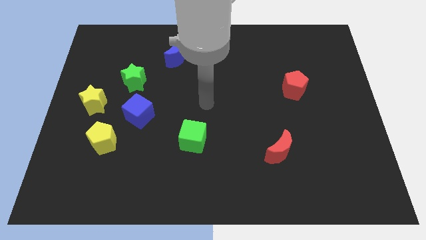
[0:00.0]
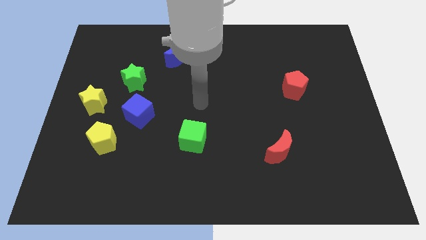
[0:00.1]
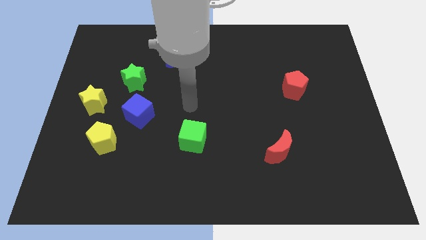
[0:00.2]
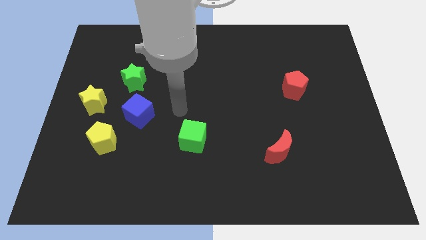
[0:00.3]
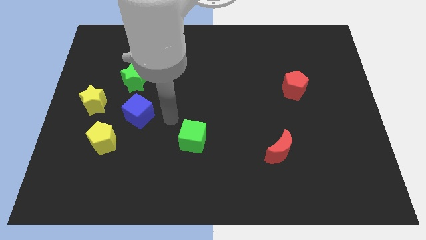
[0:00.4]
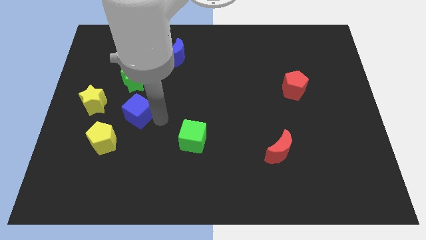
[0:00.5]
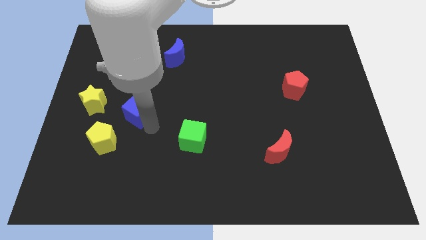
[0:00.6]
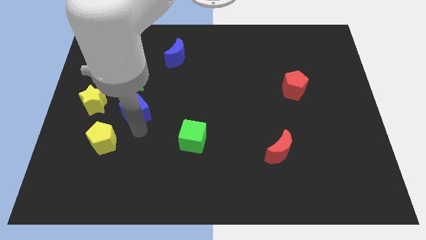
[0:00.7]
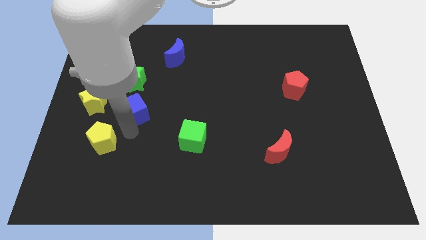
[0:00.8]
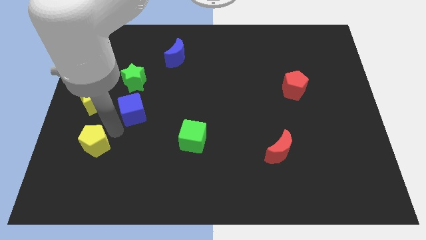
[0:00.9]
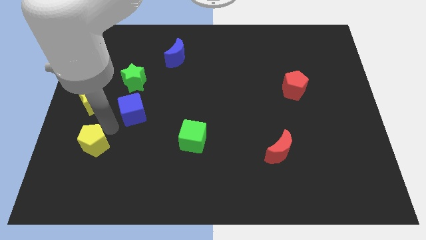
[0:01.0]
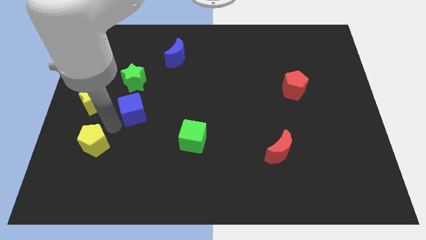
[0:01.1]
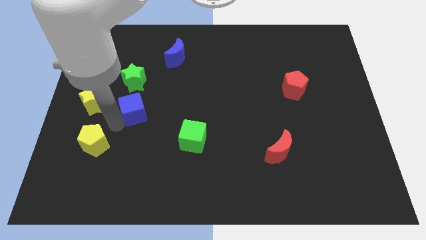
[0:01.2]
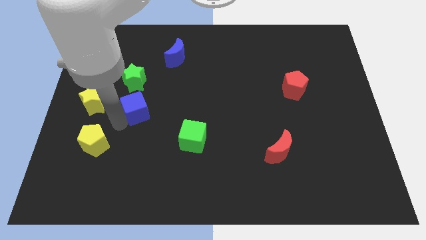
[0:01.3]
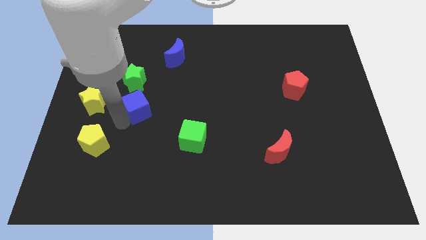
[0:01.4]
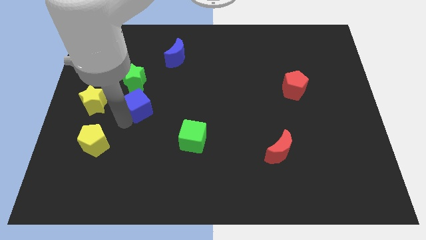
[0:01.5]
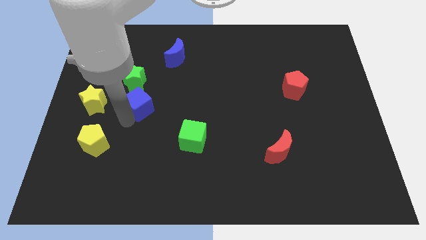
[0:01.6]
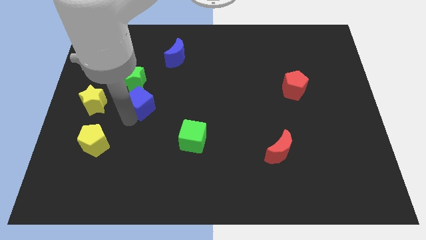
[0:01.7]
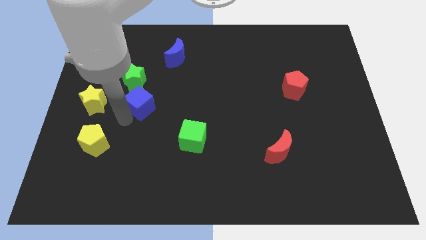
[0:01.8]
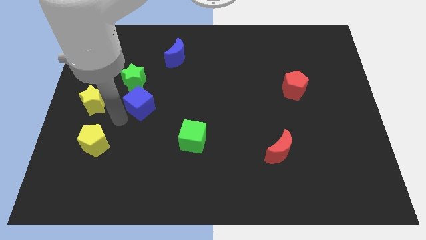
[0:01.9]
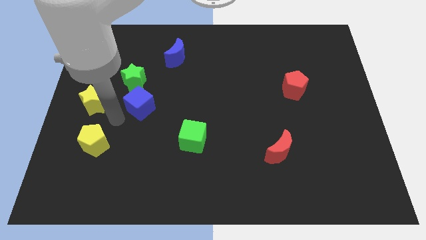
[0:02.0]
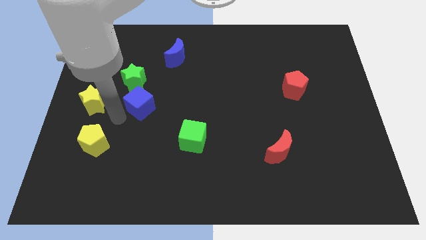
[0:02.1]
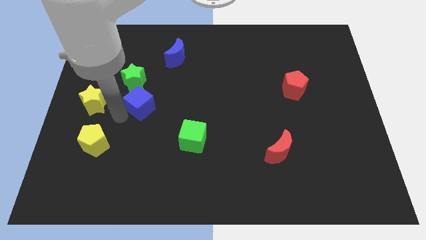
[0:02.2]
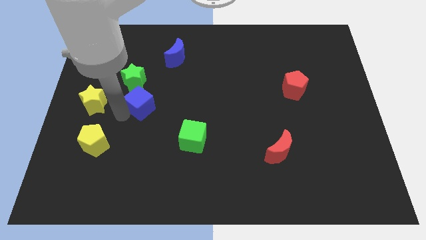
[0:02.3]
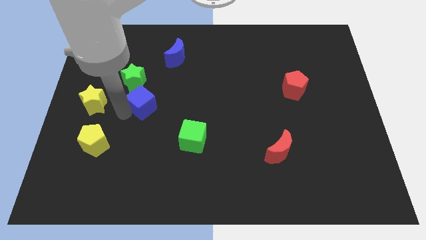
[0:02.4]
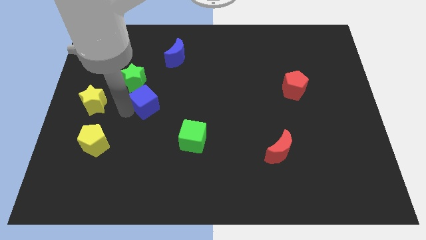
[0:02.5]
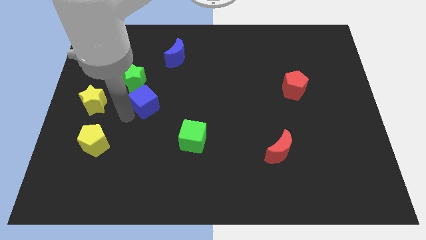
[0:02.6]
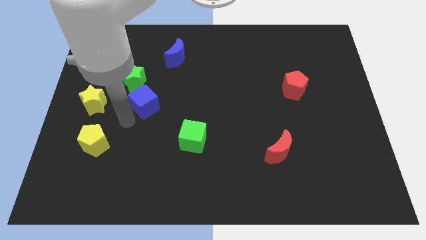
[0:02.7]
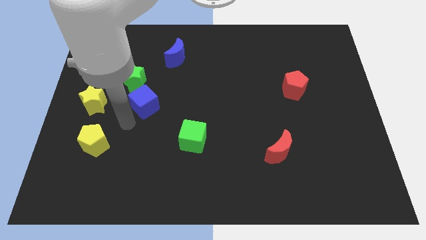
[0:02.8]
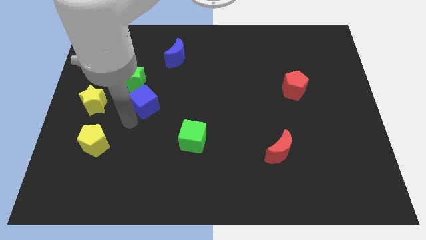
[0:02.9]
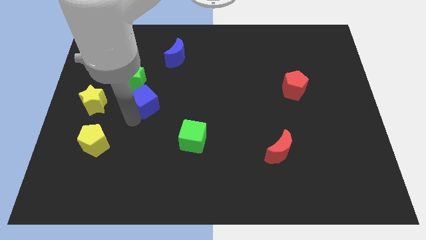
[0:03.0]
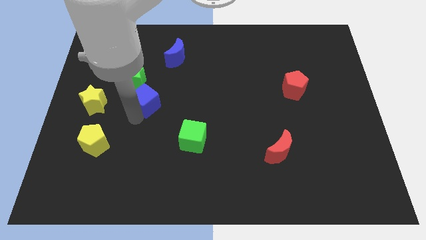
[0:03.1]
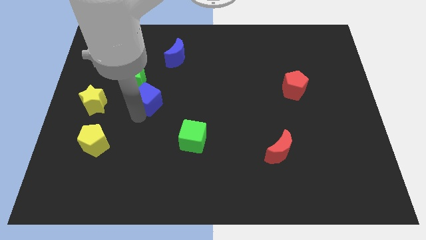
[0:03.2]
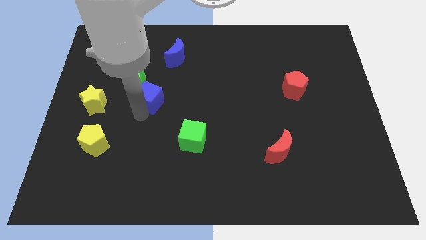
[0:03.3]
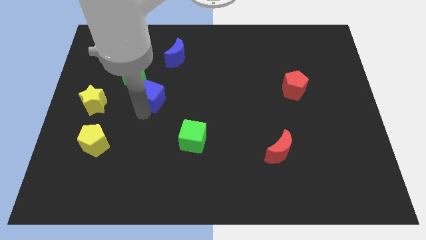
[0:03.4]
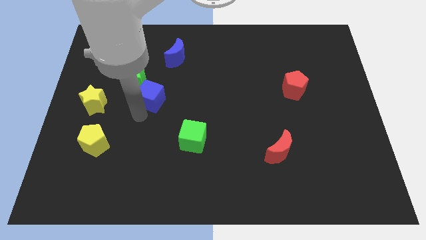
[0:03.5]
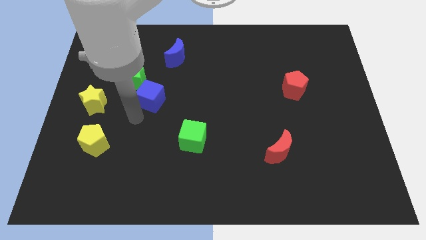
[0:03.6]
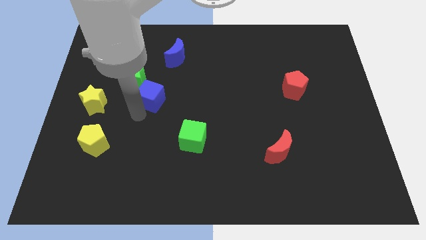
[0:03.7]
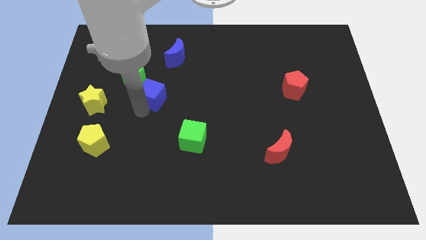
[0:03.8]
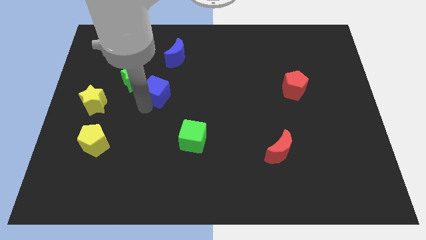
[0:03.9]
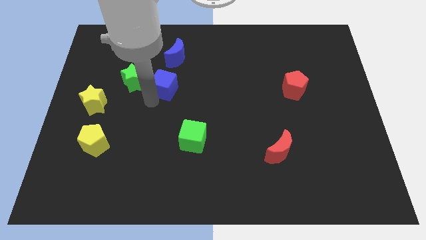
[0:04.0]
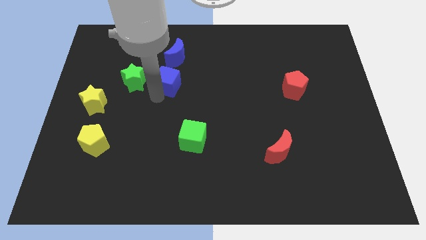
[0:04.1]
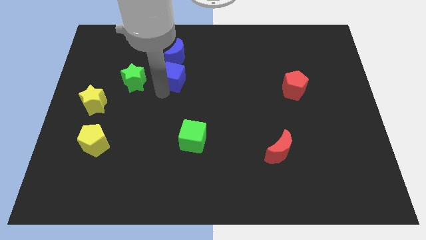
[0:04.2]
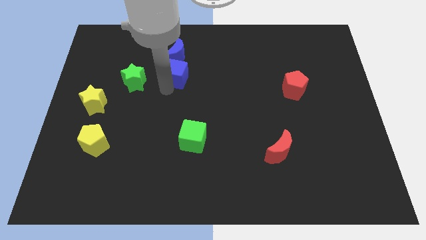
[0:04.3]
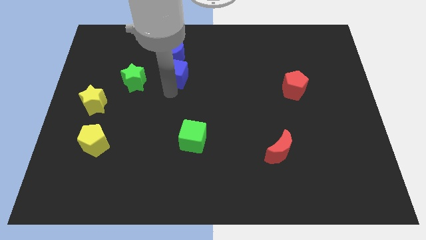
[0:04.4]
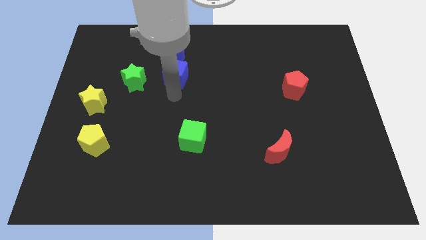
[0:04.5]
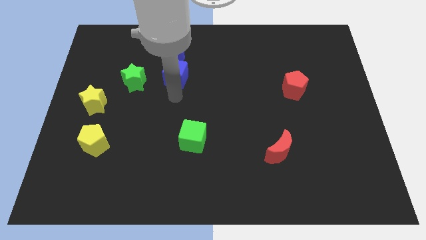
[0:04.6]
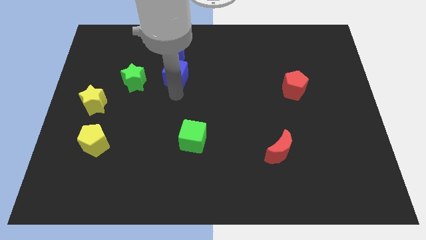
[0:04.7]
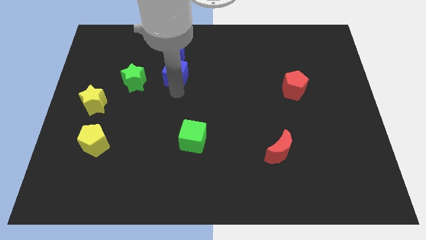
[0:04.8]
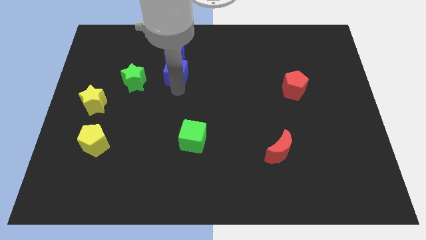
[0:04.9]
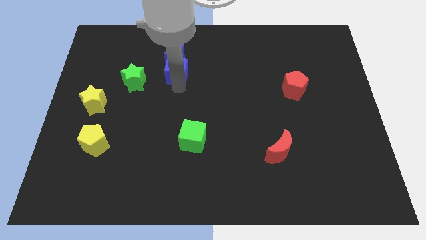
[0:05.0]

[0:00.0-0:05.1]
put the blue cube towards the blue moon

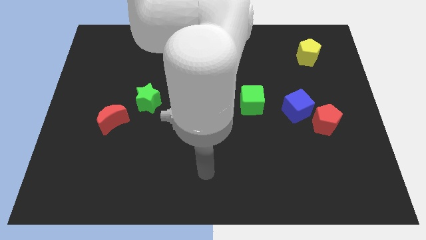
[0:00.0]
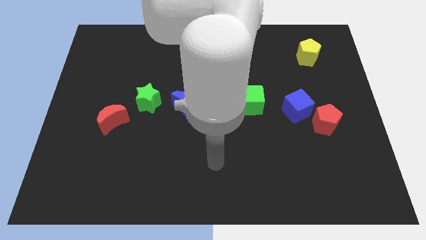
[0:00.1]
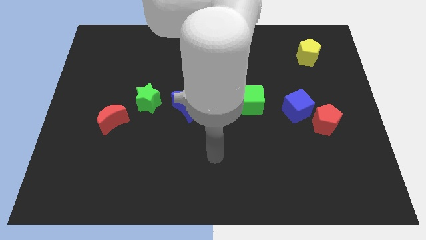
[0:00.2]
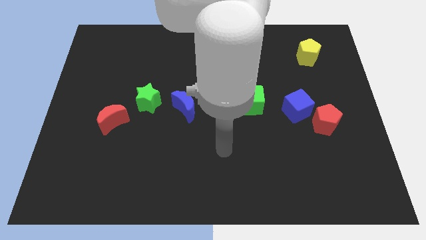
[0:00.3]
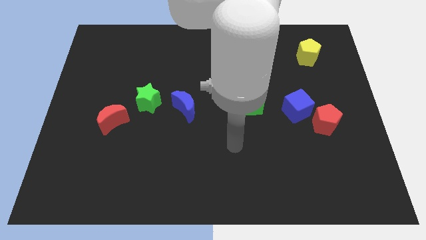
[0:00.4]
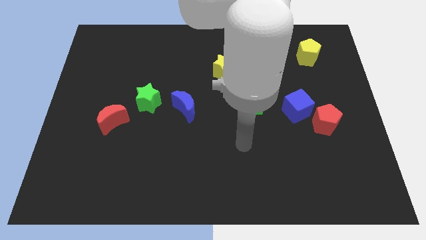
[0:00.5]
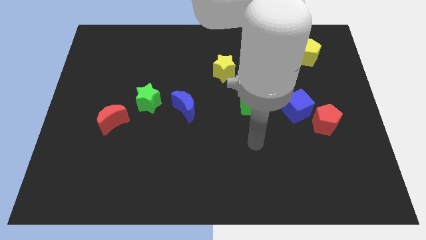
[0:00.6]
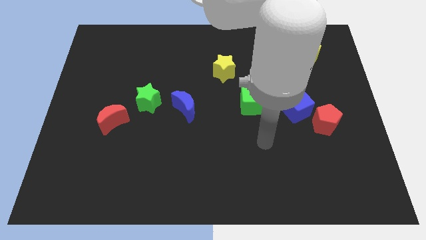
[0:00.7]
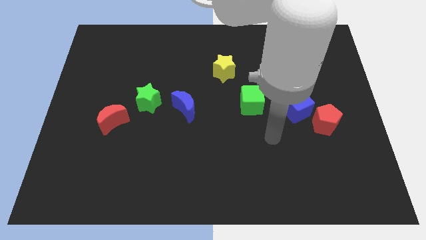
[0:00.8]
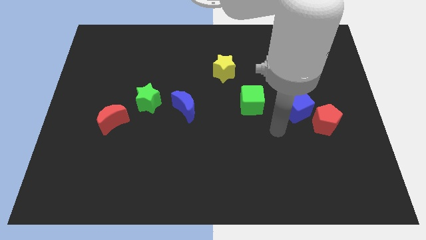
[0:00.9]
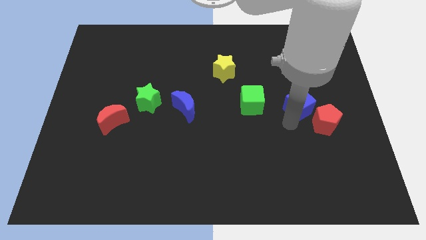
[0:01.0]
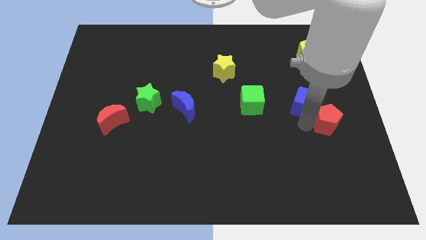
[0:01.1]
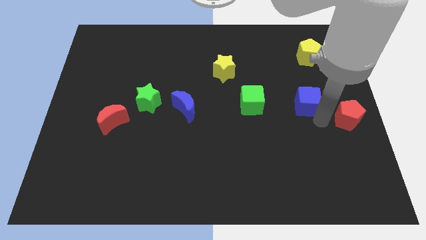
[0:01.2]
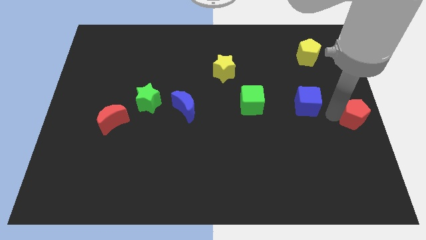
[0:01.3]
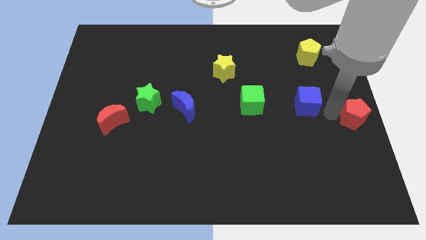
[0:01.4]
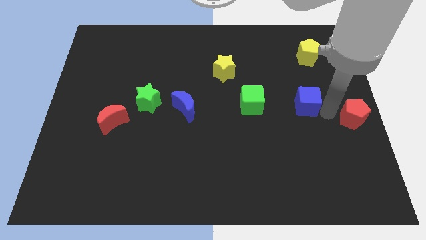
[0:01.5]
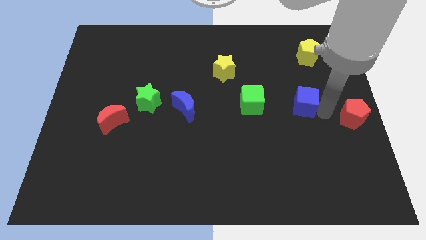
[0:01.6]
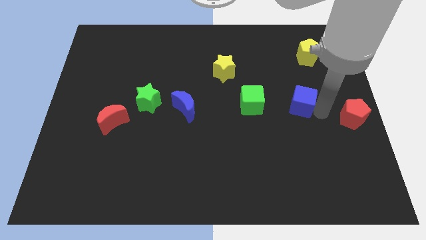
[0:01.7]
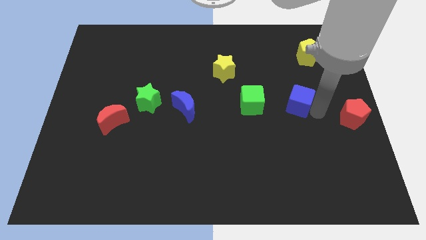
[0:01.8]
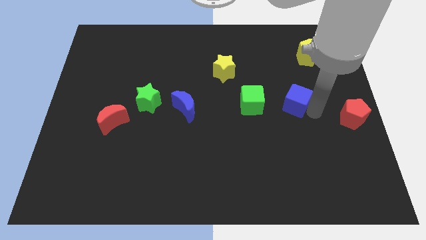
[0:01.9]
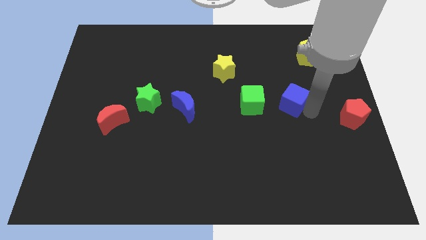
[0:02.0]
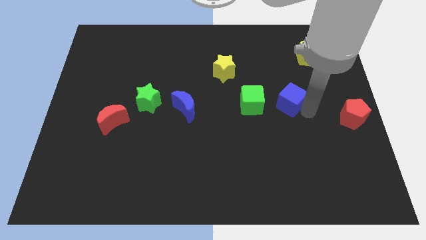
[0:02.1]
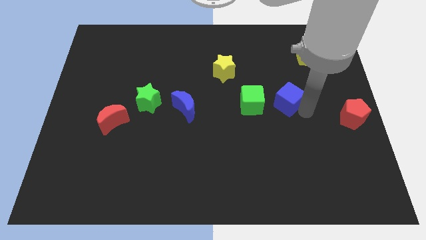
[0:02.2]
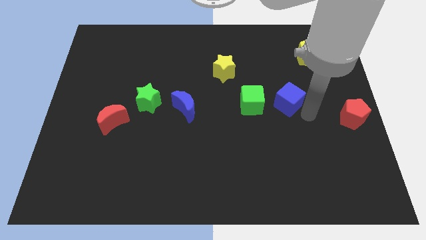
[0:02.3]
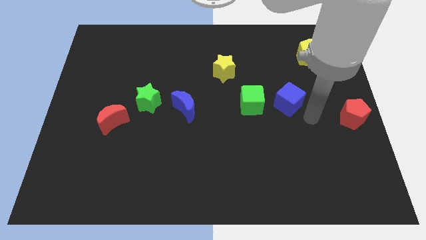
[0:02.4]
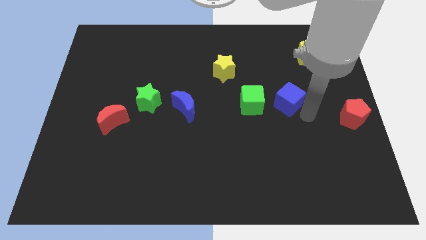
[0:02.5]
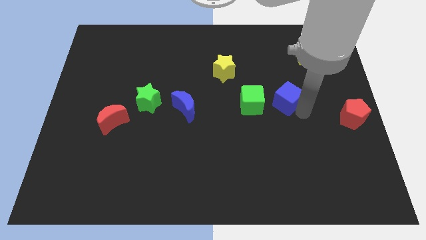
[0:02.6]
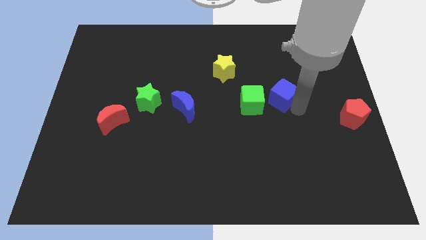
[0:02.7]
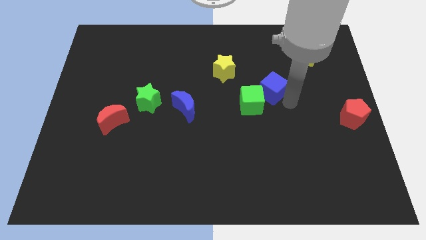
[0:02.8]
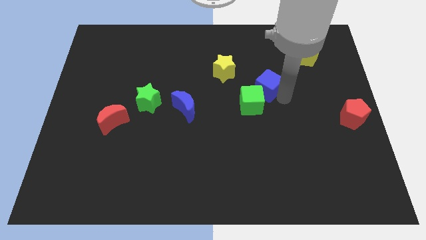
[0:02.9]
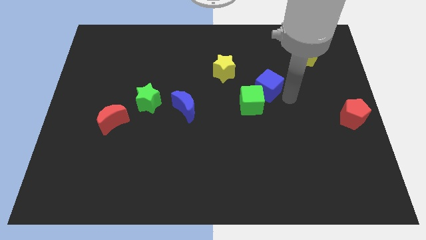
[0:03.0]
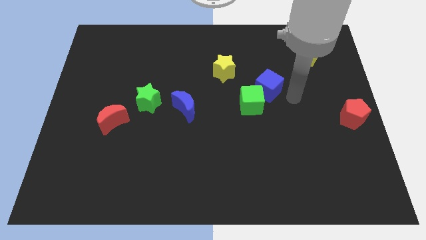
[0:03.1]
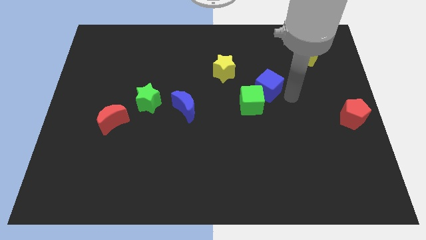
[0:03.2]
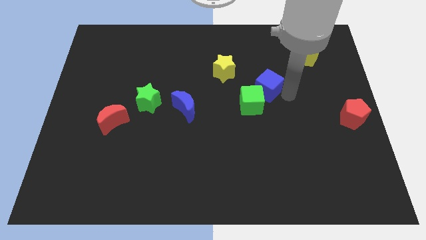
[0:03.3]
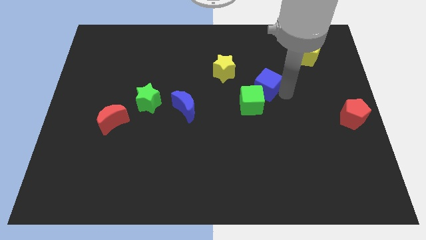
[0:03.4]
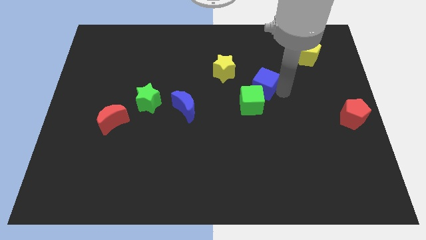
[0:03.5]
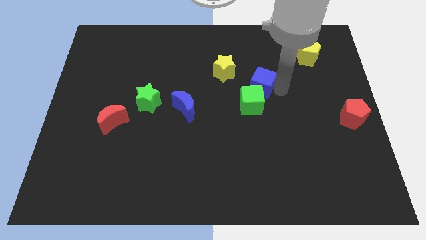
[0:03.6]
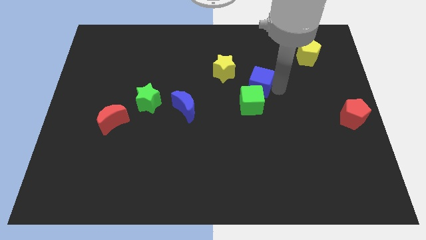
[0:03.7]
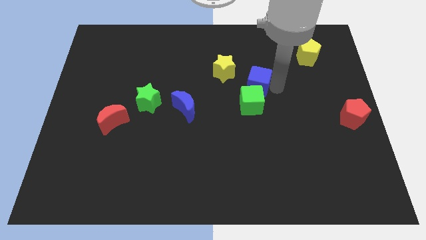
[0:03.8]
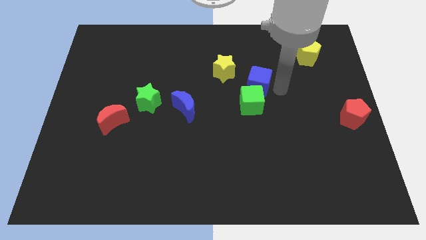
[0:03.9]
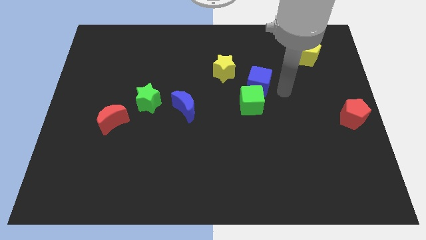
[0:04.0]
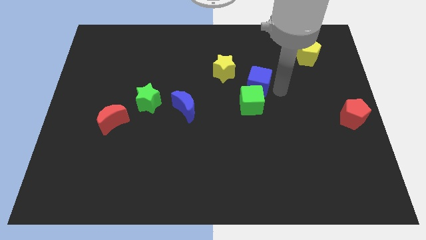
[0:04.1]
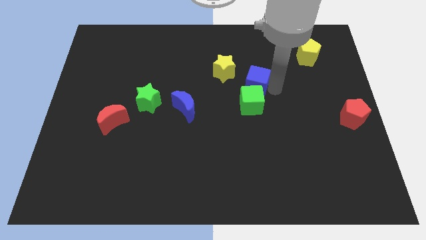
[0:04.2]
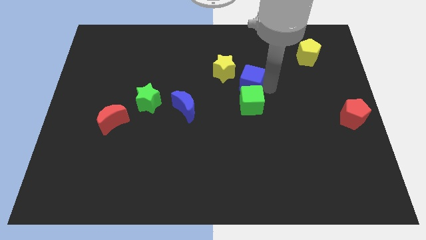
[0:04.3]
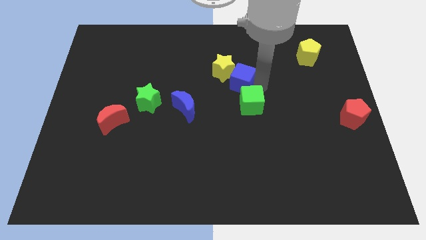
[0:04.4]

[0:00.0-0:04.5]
push the blue cube next to the yellow star
